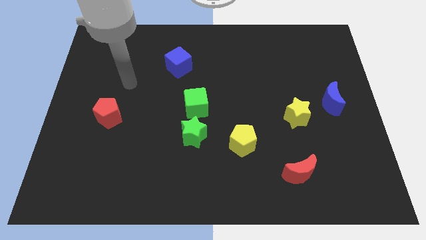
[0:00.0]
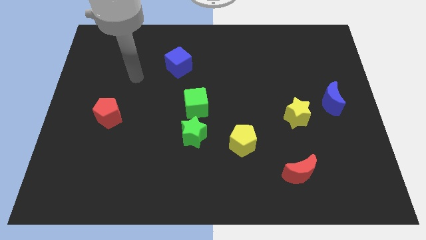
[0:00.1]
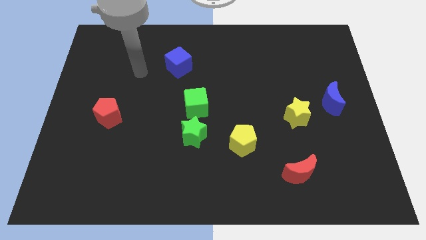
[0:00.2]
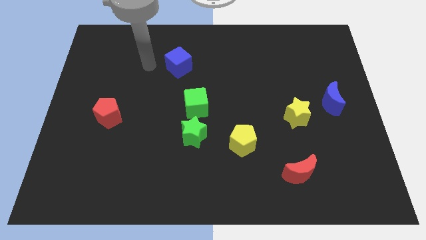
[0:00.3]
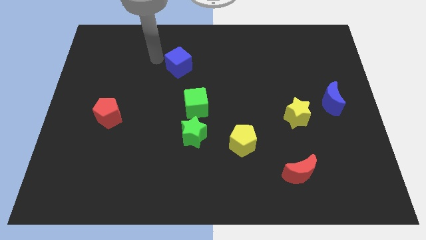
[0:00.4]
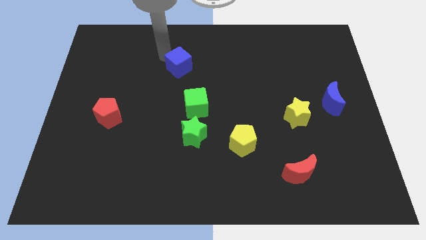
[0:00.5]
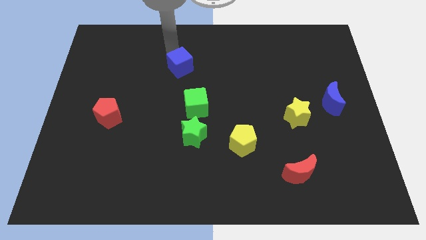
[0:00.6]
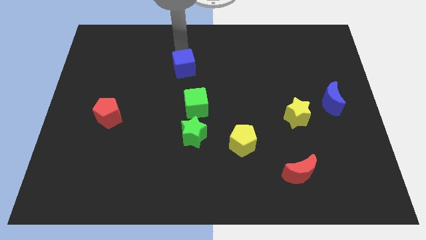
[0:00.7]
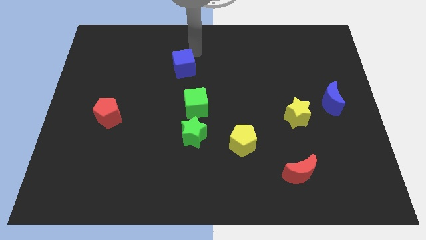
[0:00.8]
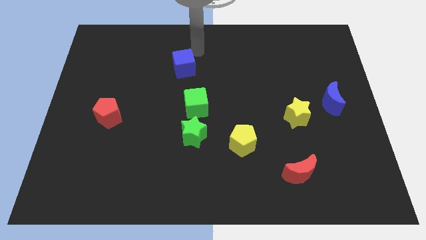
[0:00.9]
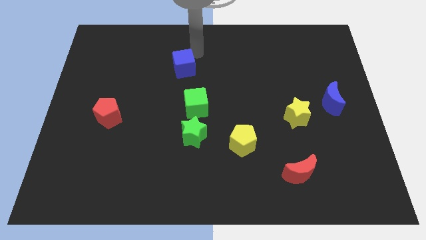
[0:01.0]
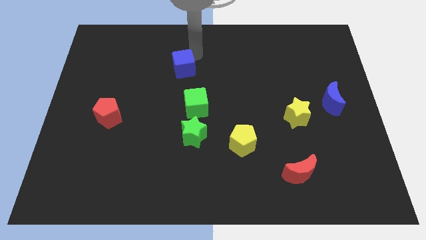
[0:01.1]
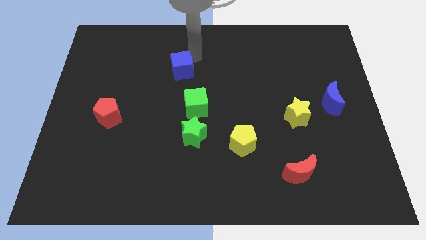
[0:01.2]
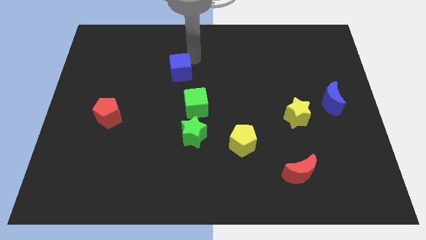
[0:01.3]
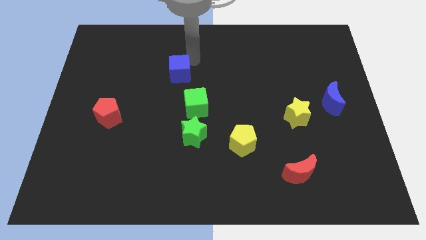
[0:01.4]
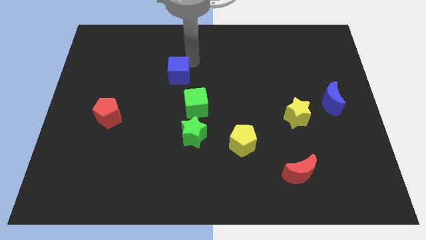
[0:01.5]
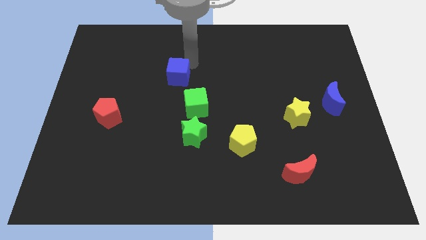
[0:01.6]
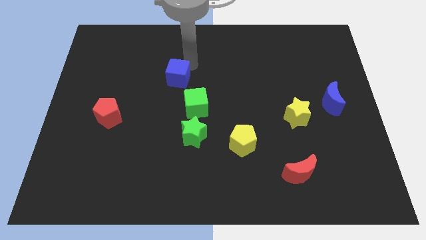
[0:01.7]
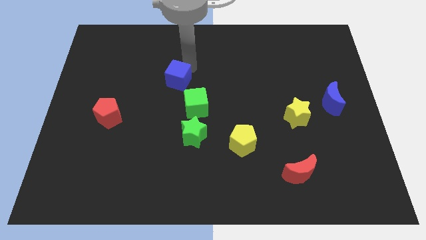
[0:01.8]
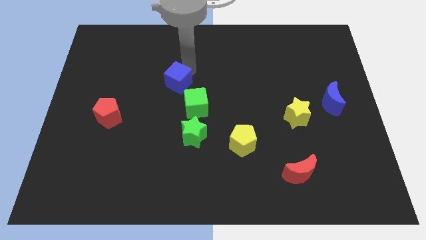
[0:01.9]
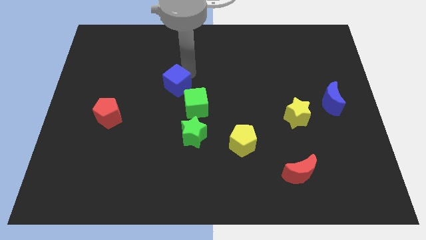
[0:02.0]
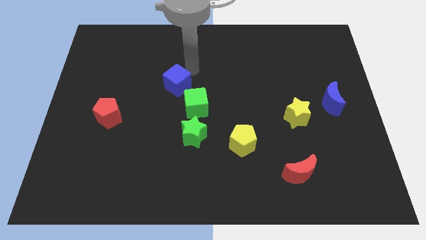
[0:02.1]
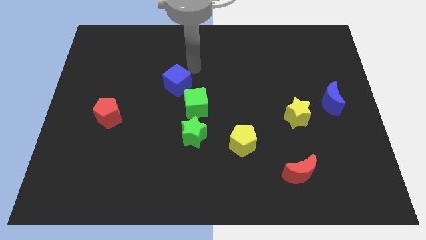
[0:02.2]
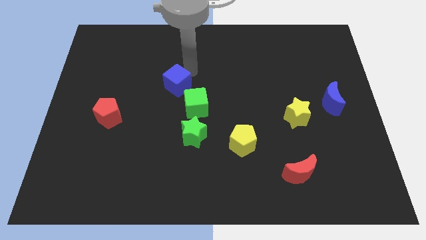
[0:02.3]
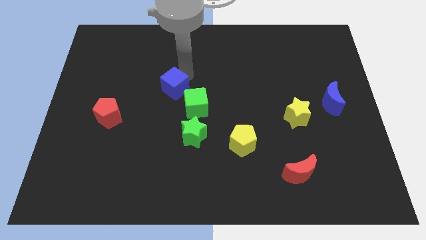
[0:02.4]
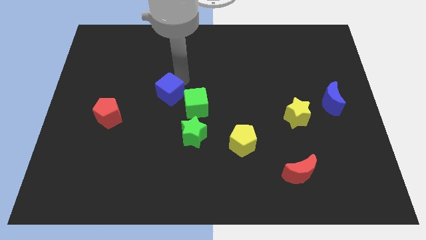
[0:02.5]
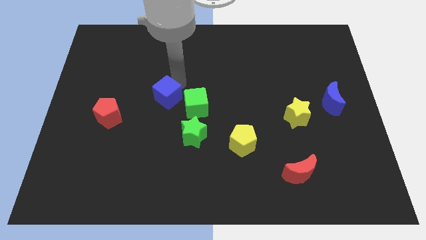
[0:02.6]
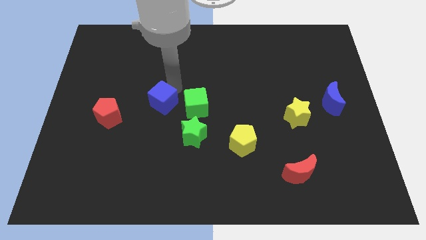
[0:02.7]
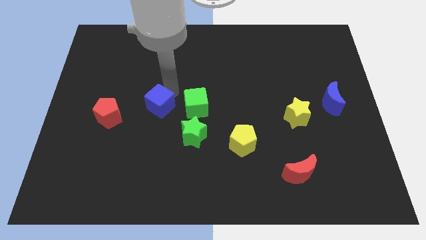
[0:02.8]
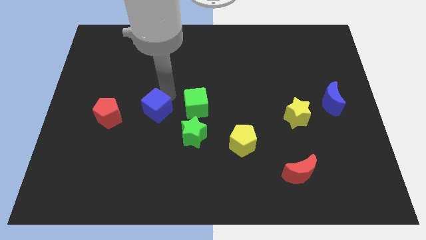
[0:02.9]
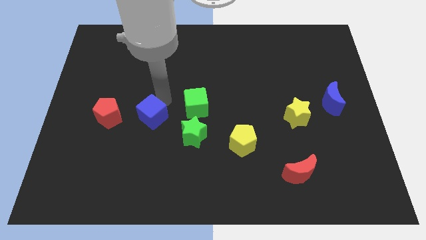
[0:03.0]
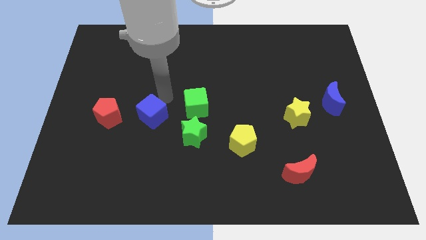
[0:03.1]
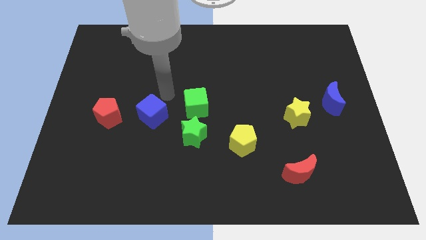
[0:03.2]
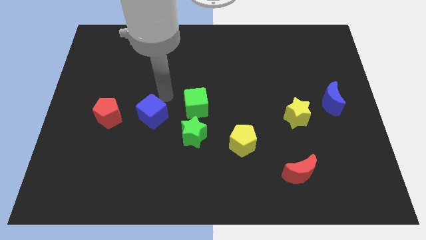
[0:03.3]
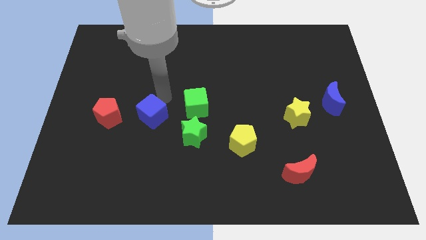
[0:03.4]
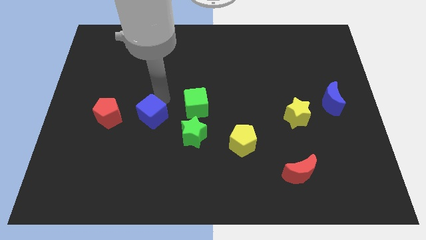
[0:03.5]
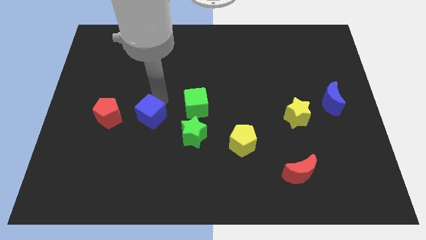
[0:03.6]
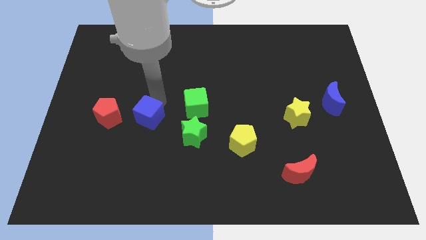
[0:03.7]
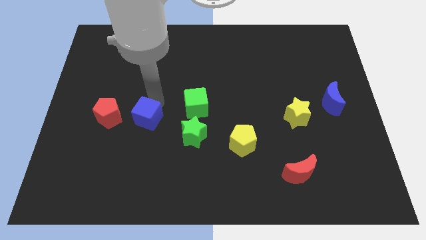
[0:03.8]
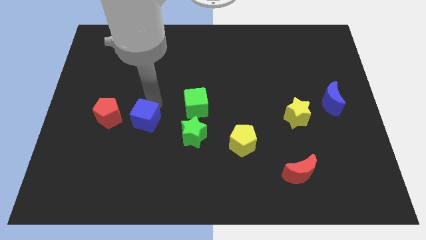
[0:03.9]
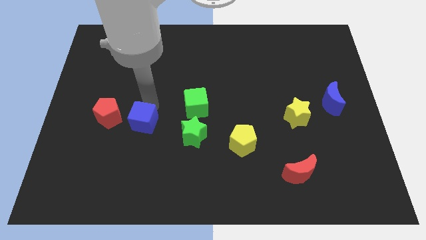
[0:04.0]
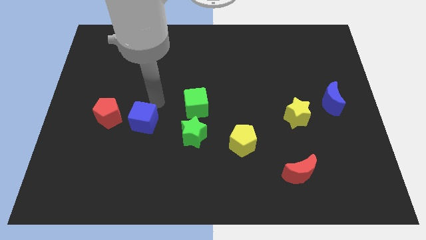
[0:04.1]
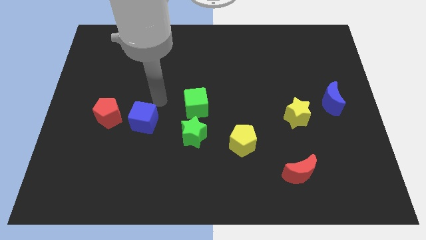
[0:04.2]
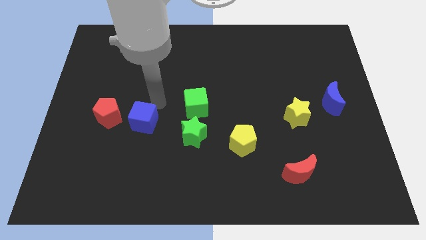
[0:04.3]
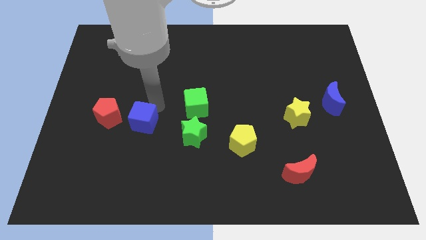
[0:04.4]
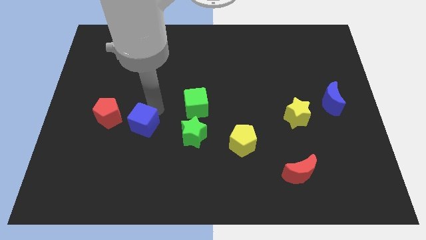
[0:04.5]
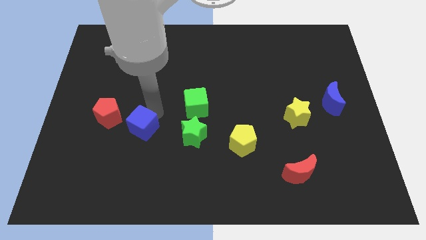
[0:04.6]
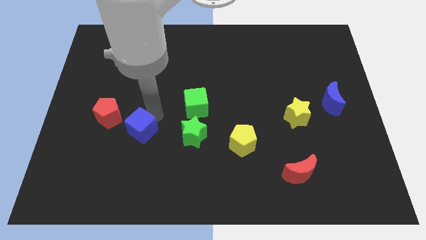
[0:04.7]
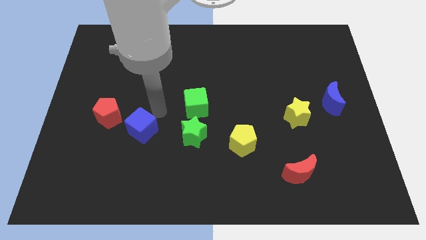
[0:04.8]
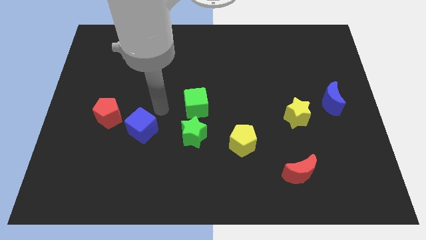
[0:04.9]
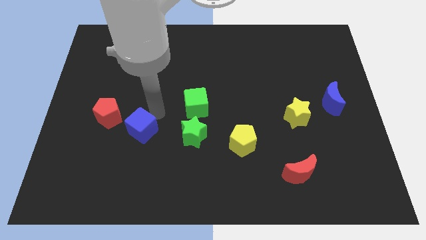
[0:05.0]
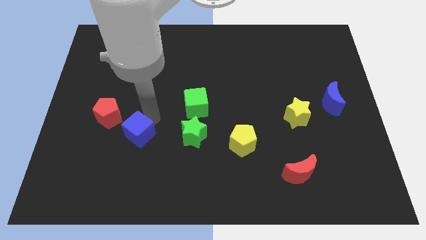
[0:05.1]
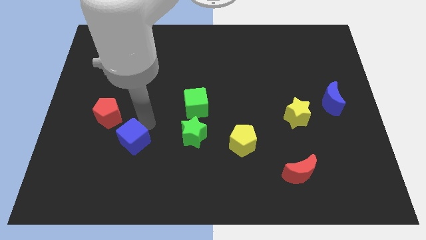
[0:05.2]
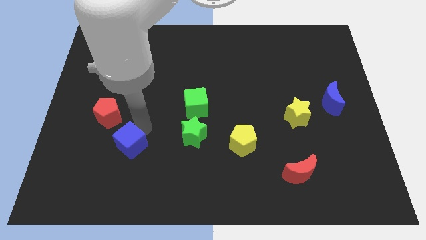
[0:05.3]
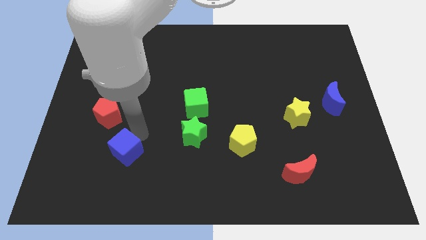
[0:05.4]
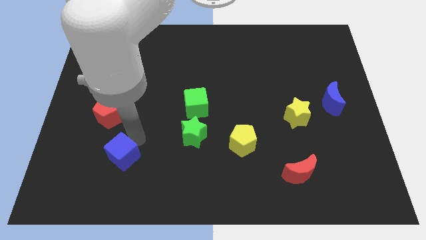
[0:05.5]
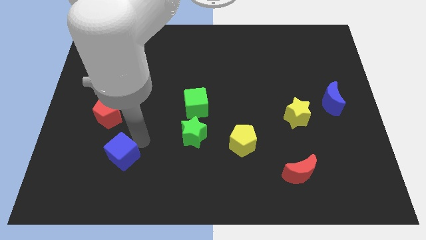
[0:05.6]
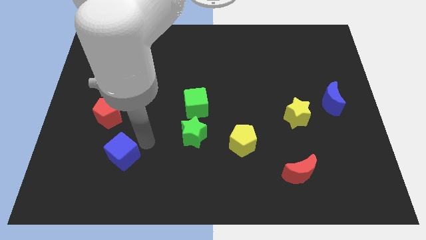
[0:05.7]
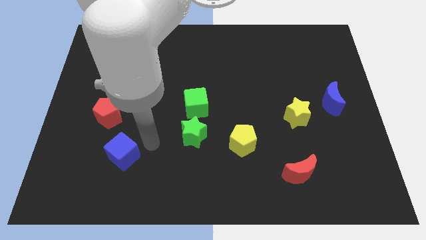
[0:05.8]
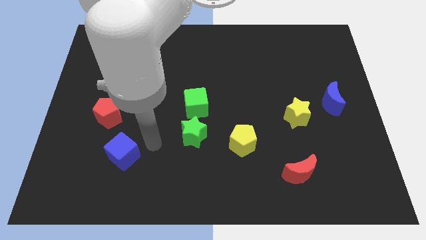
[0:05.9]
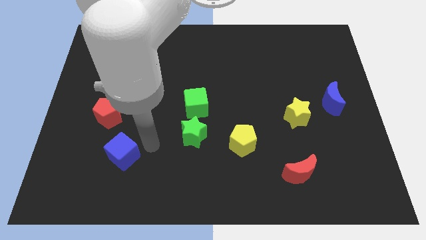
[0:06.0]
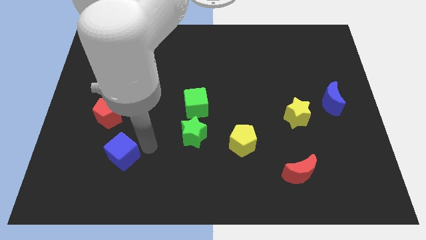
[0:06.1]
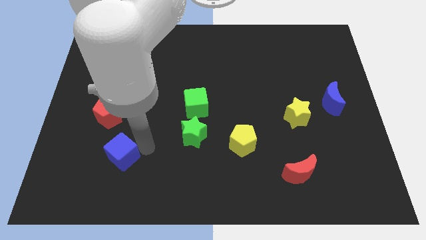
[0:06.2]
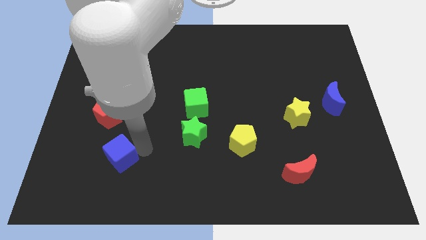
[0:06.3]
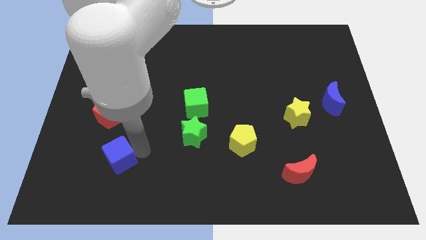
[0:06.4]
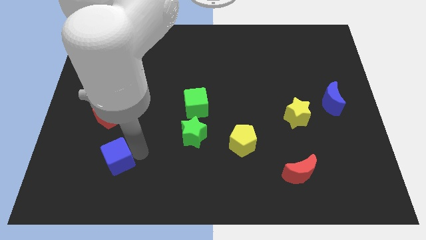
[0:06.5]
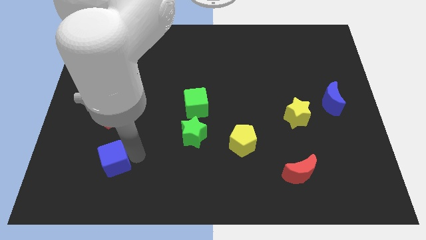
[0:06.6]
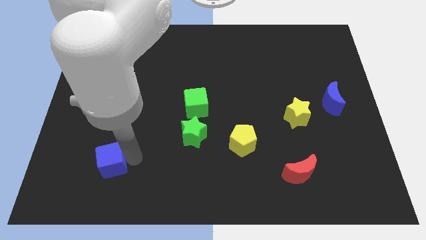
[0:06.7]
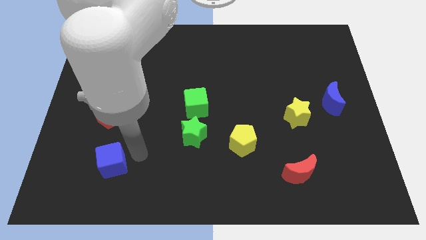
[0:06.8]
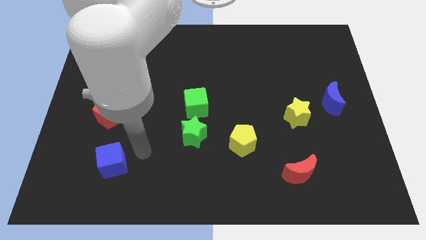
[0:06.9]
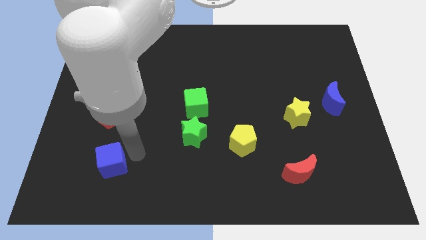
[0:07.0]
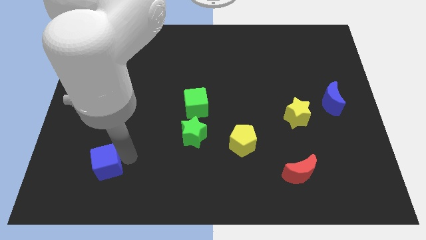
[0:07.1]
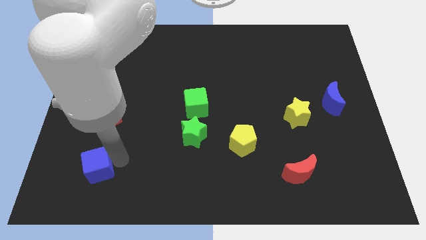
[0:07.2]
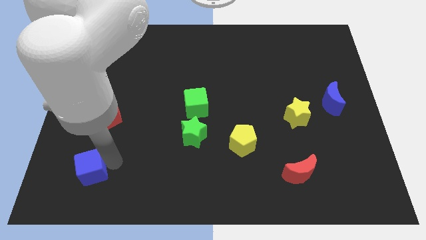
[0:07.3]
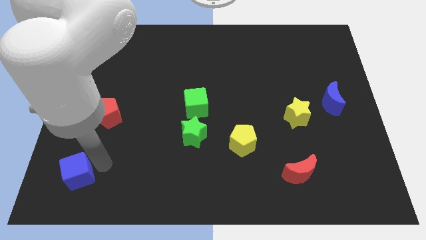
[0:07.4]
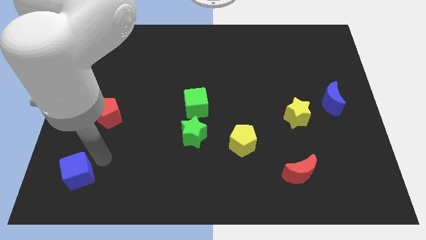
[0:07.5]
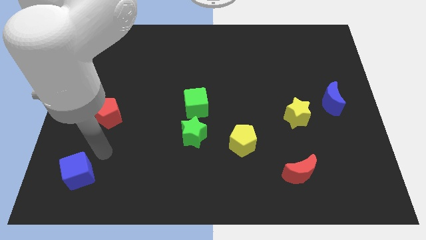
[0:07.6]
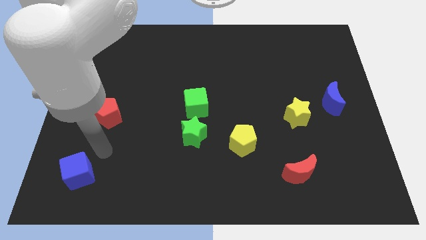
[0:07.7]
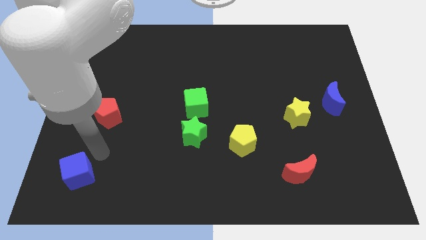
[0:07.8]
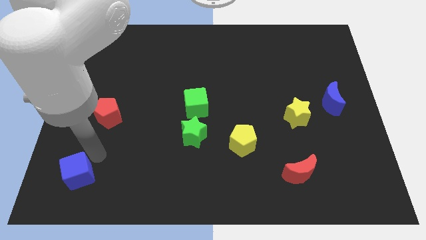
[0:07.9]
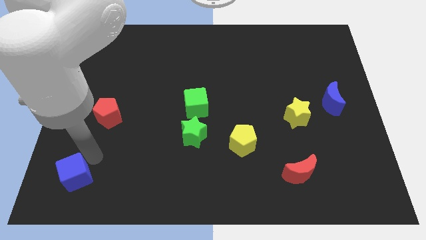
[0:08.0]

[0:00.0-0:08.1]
put the blue cube to the bottom left
